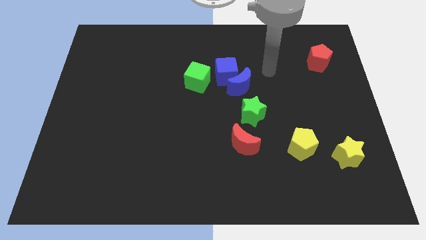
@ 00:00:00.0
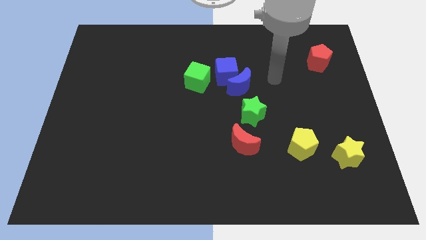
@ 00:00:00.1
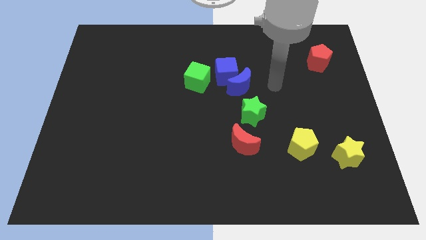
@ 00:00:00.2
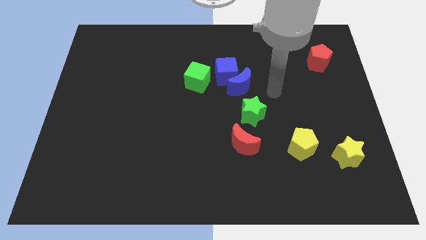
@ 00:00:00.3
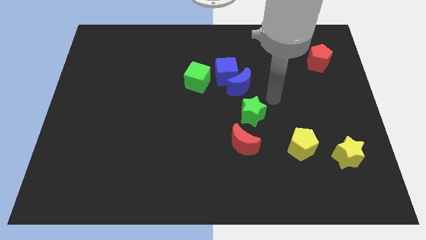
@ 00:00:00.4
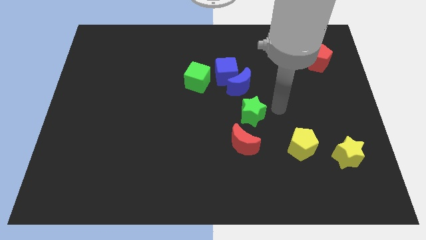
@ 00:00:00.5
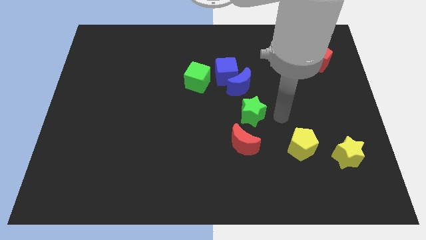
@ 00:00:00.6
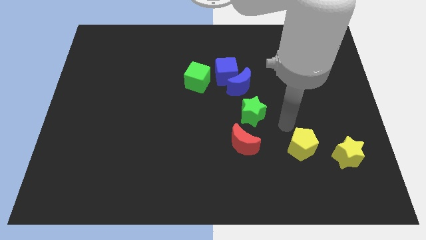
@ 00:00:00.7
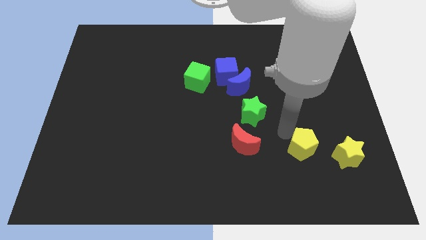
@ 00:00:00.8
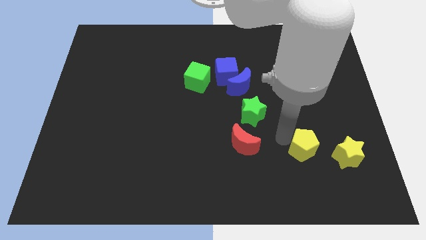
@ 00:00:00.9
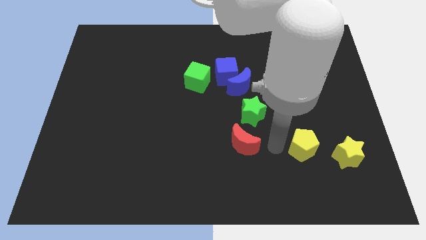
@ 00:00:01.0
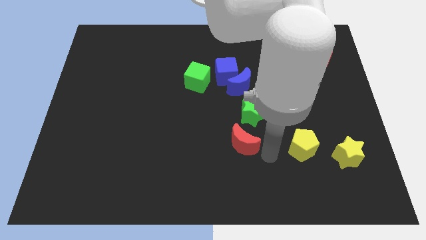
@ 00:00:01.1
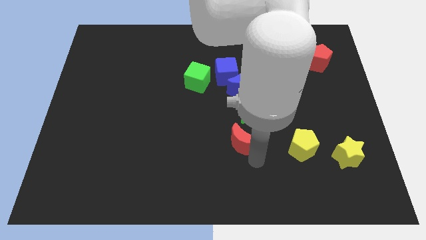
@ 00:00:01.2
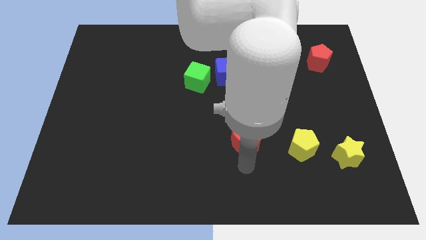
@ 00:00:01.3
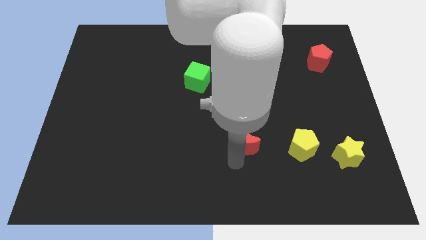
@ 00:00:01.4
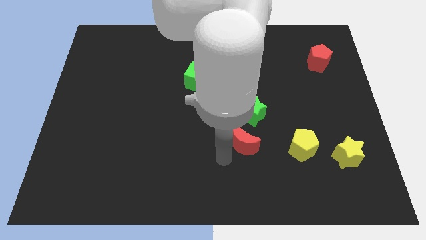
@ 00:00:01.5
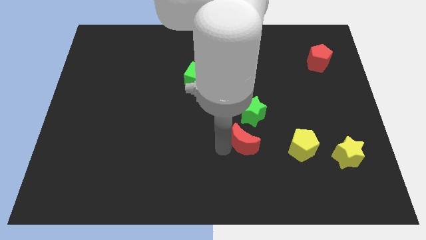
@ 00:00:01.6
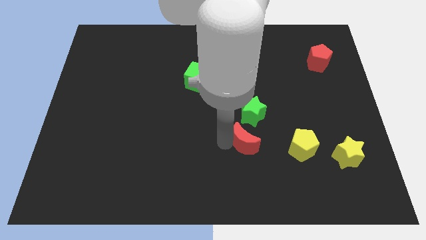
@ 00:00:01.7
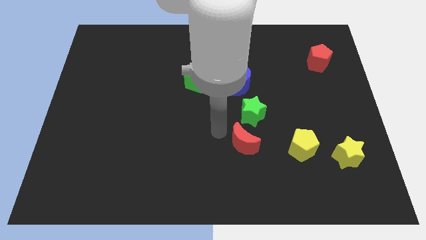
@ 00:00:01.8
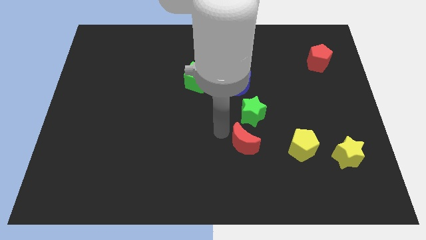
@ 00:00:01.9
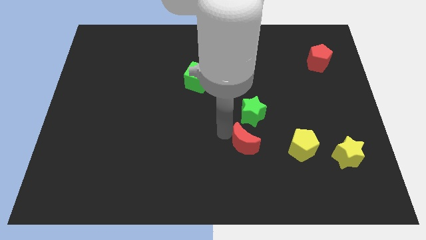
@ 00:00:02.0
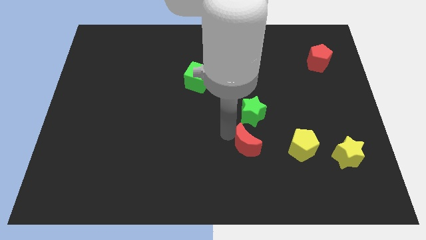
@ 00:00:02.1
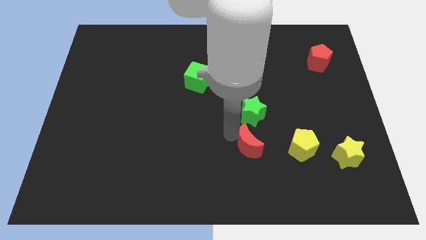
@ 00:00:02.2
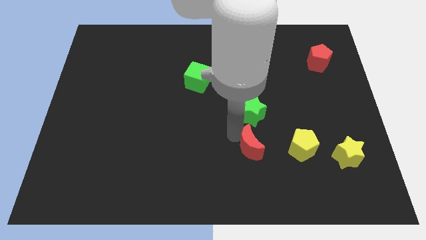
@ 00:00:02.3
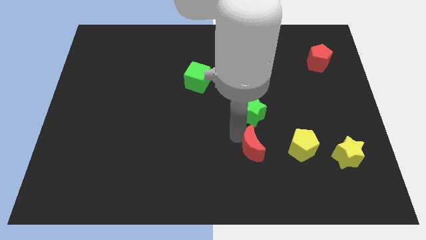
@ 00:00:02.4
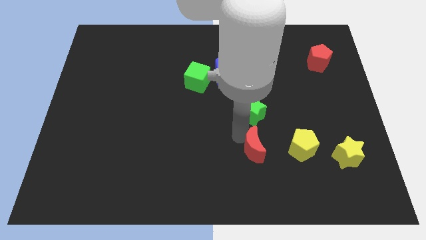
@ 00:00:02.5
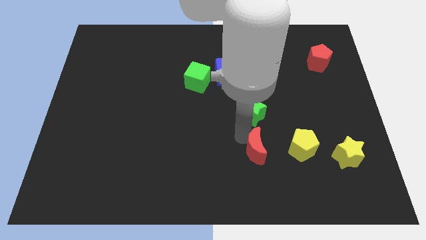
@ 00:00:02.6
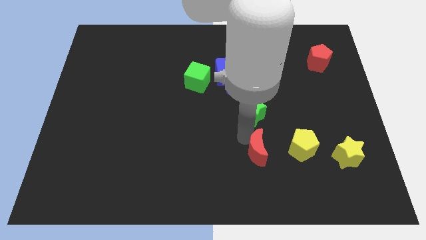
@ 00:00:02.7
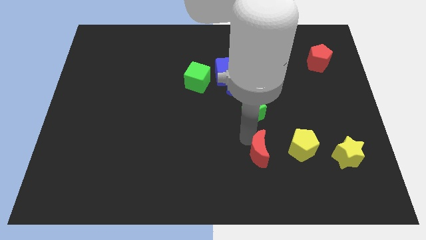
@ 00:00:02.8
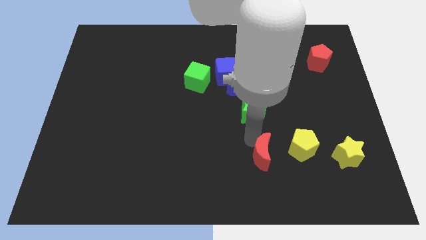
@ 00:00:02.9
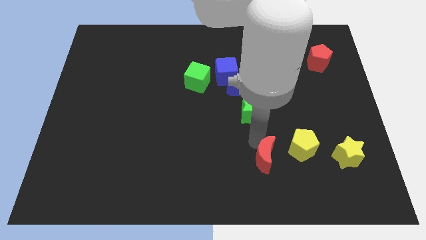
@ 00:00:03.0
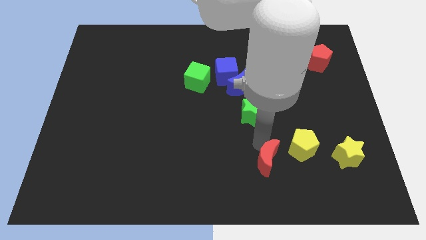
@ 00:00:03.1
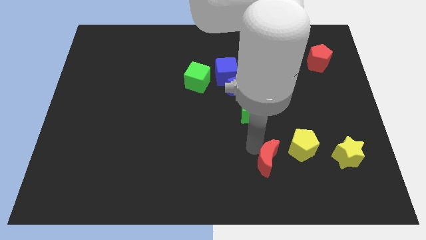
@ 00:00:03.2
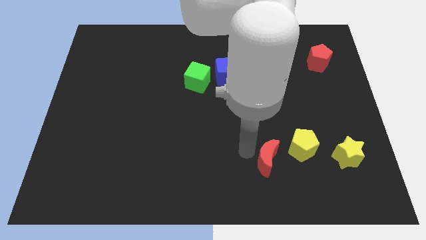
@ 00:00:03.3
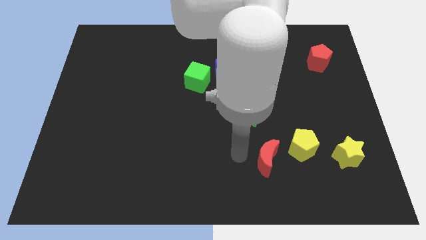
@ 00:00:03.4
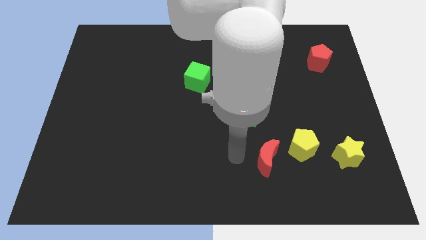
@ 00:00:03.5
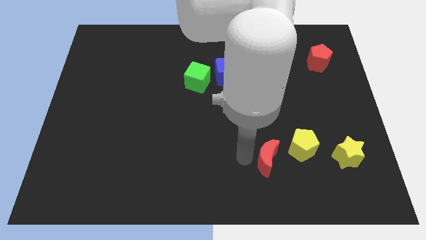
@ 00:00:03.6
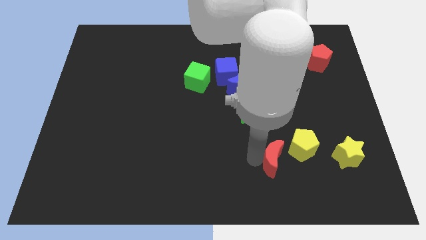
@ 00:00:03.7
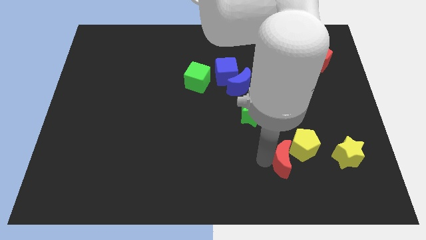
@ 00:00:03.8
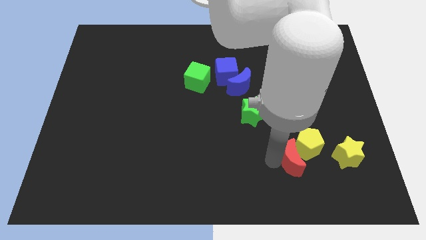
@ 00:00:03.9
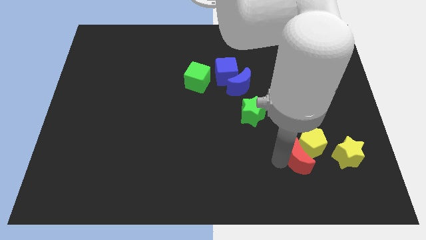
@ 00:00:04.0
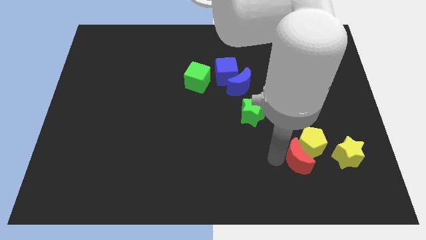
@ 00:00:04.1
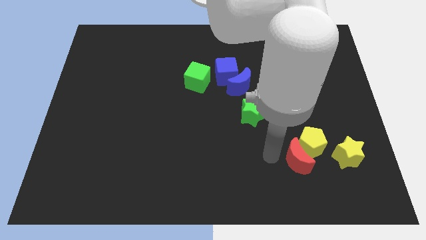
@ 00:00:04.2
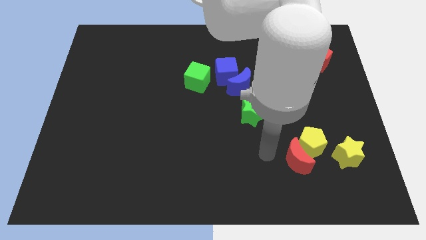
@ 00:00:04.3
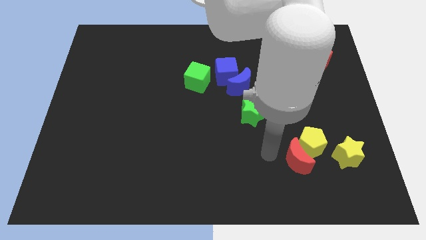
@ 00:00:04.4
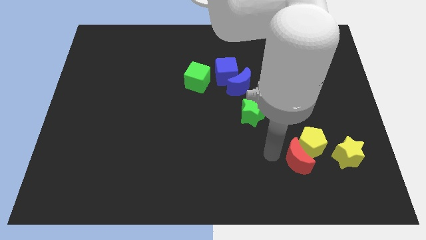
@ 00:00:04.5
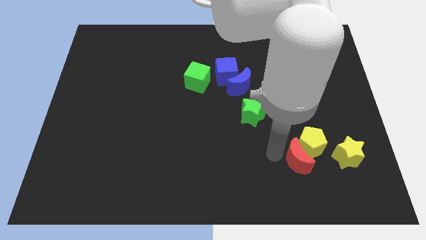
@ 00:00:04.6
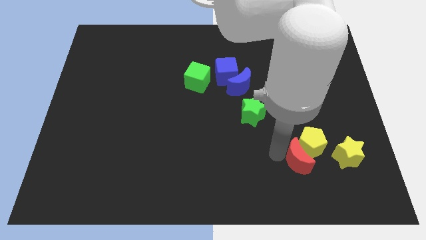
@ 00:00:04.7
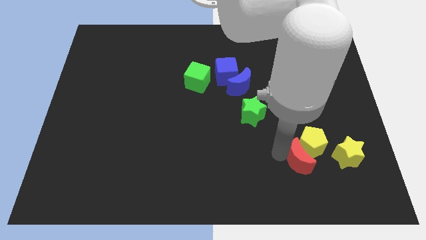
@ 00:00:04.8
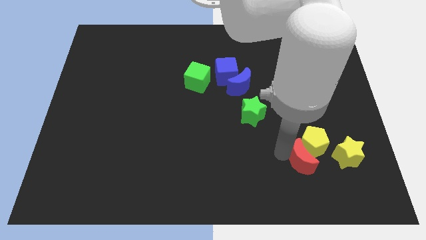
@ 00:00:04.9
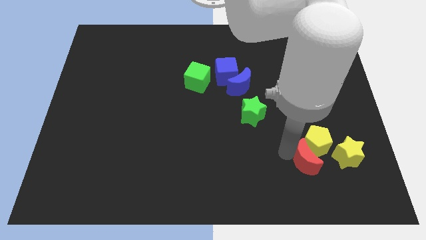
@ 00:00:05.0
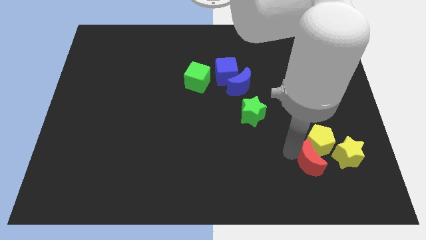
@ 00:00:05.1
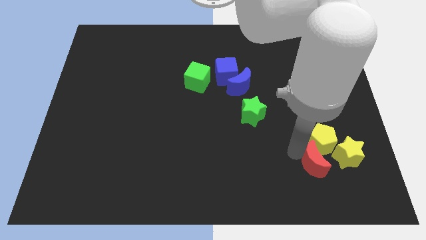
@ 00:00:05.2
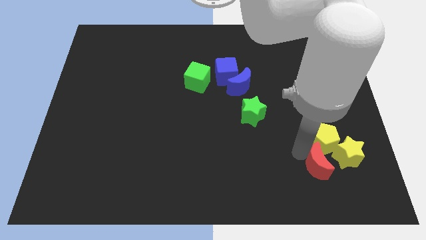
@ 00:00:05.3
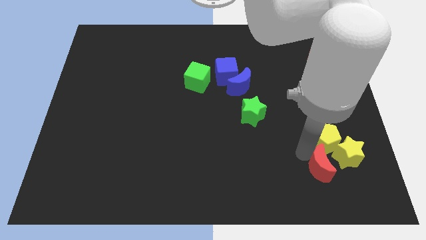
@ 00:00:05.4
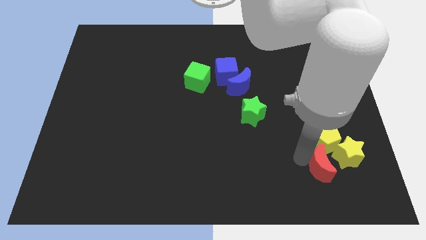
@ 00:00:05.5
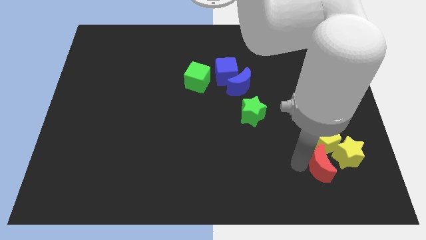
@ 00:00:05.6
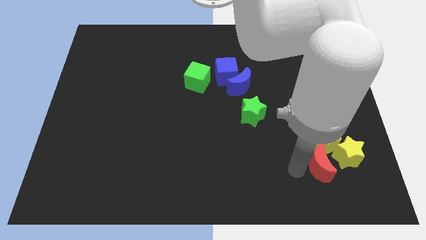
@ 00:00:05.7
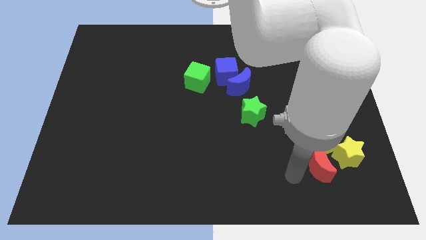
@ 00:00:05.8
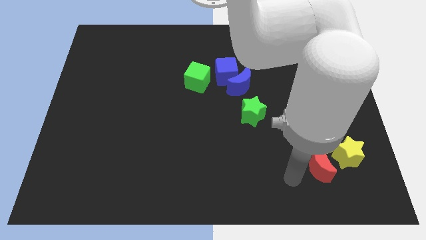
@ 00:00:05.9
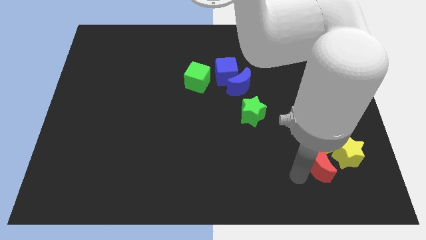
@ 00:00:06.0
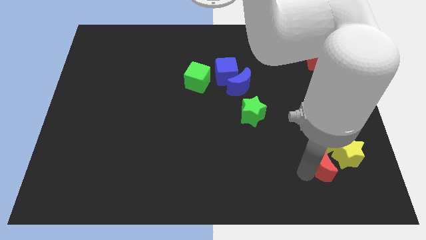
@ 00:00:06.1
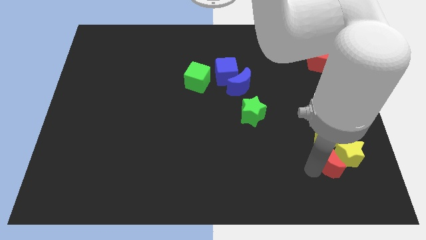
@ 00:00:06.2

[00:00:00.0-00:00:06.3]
move the red moon towards the yellow star
